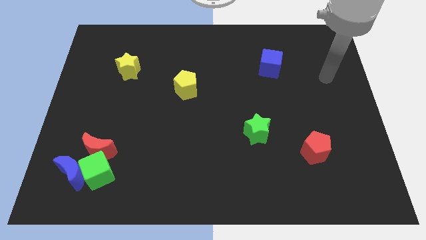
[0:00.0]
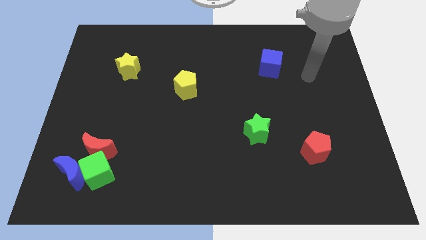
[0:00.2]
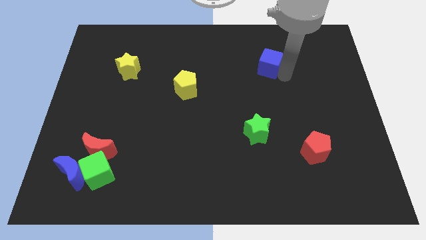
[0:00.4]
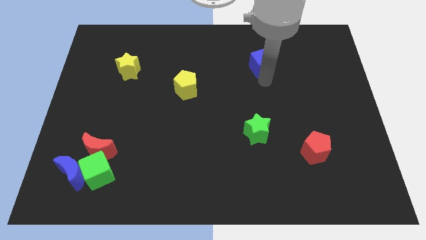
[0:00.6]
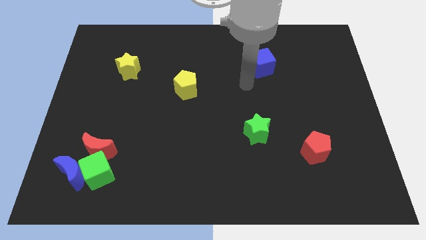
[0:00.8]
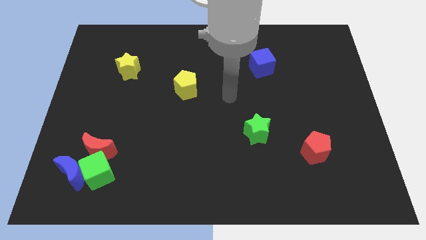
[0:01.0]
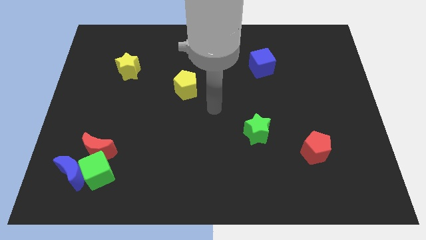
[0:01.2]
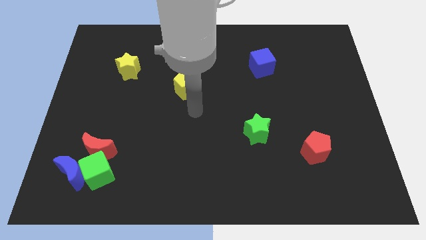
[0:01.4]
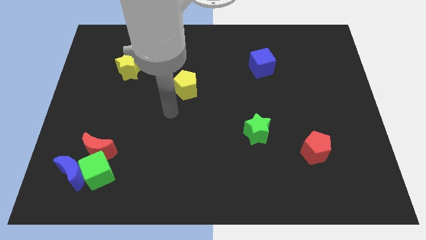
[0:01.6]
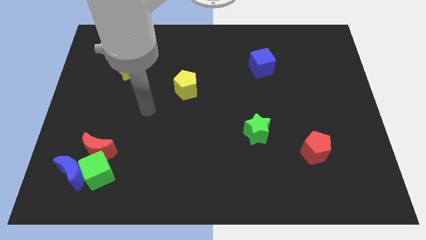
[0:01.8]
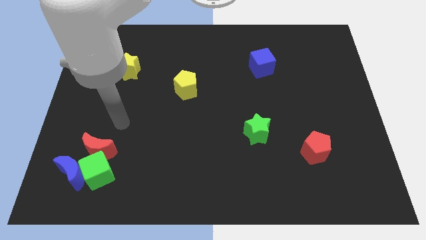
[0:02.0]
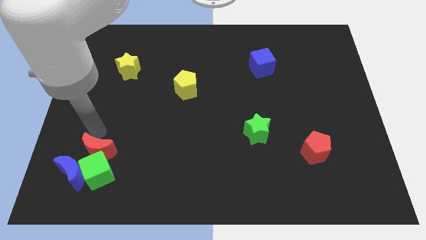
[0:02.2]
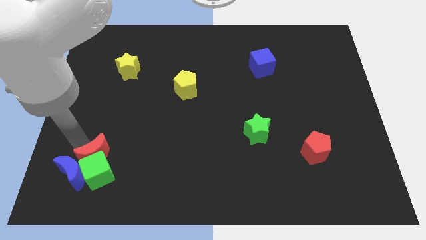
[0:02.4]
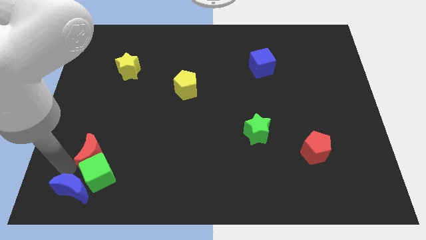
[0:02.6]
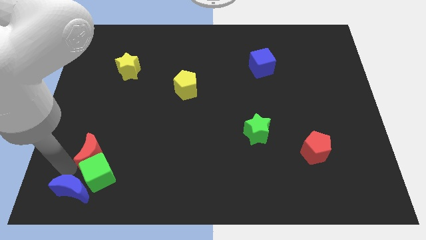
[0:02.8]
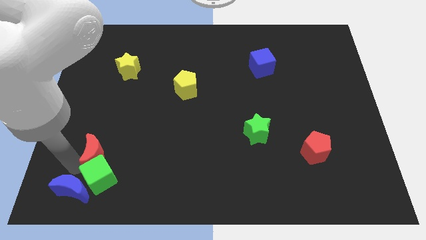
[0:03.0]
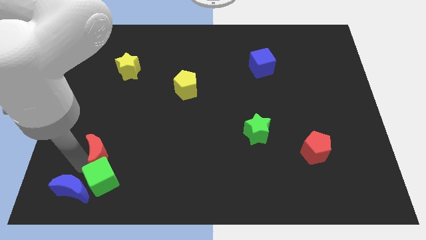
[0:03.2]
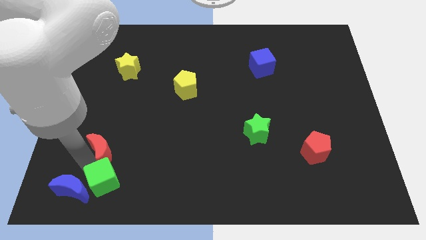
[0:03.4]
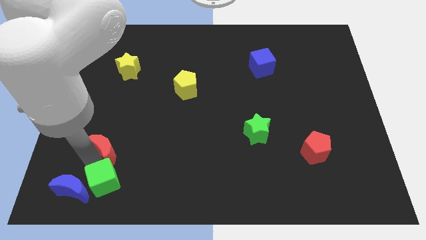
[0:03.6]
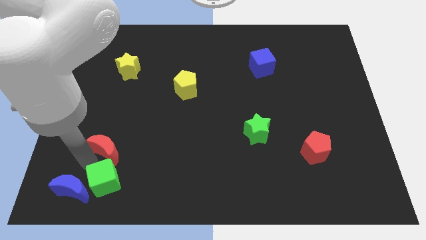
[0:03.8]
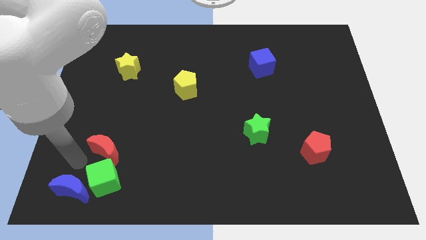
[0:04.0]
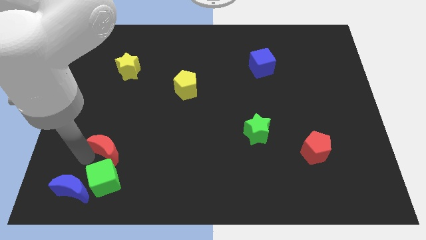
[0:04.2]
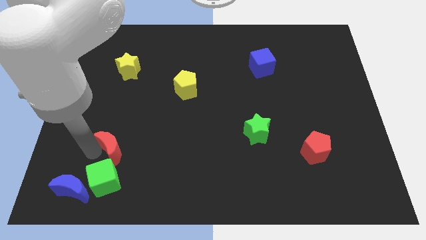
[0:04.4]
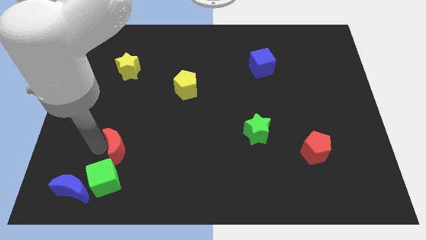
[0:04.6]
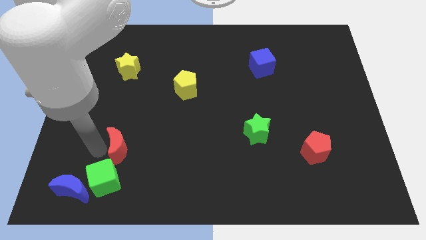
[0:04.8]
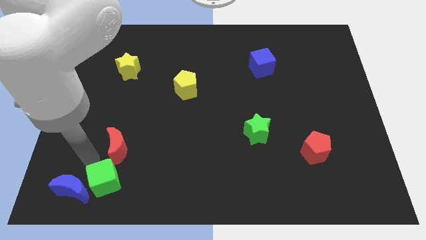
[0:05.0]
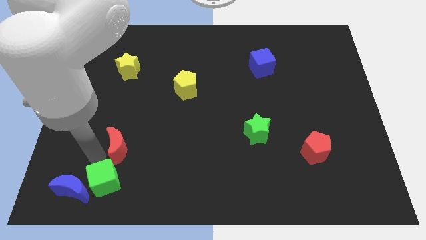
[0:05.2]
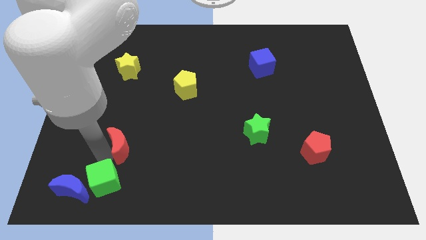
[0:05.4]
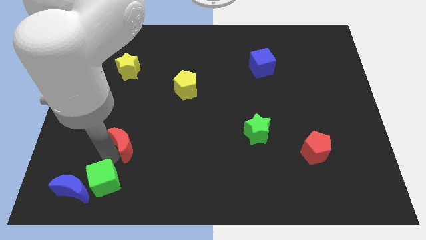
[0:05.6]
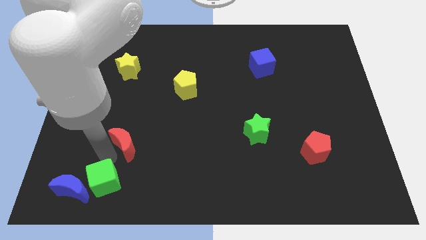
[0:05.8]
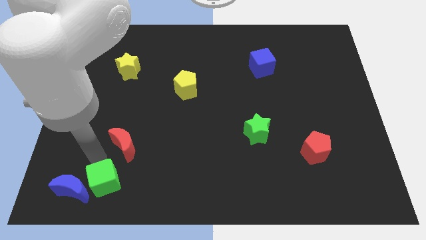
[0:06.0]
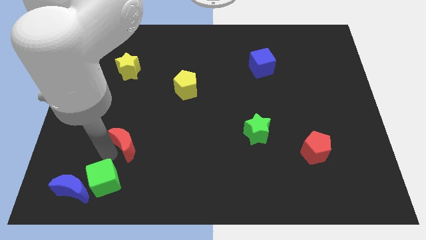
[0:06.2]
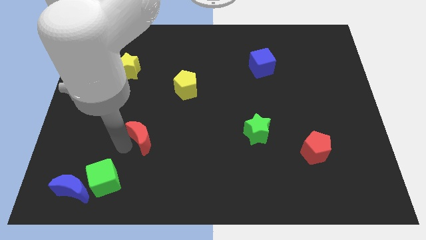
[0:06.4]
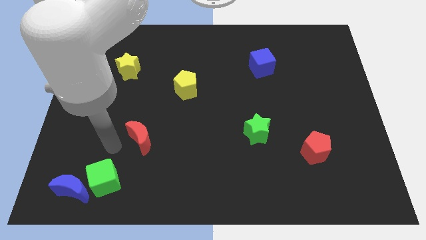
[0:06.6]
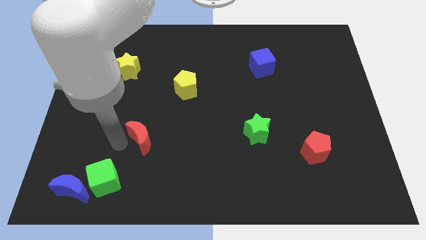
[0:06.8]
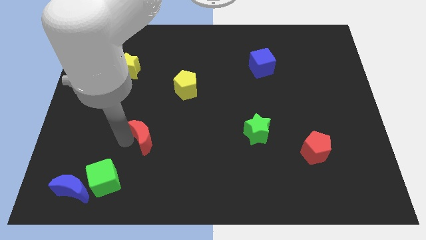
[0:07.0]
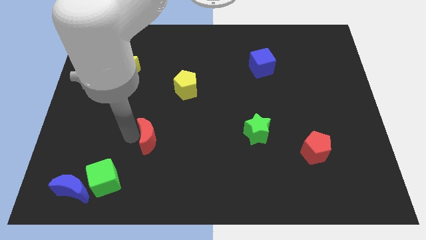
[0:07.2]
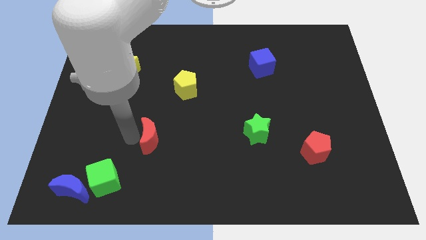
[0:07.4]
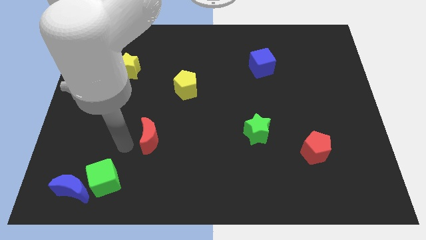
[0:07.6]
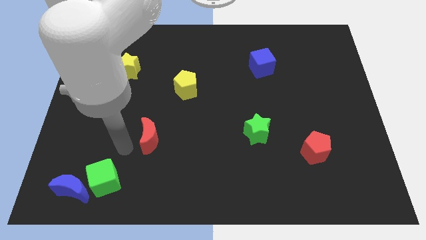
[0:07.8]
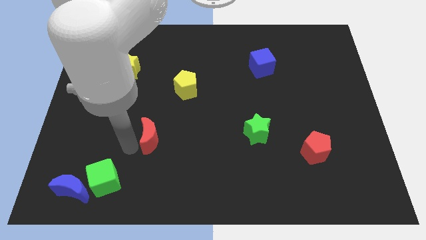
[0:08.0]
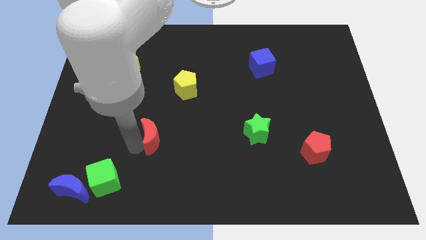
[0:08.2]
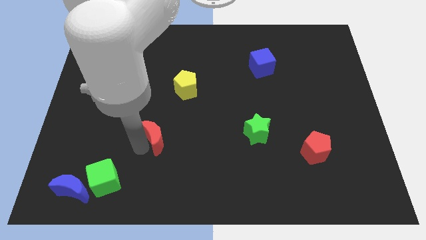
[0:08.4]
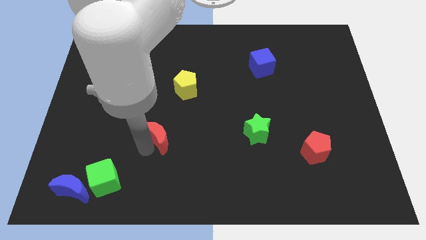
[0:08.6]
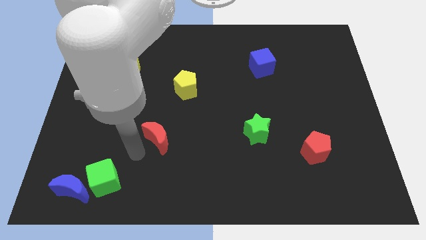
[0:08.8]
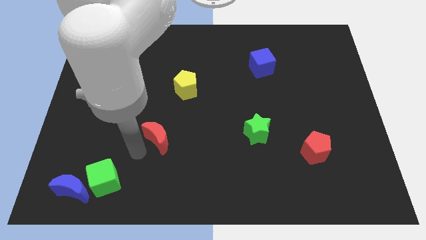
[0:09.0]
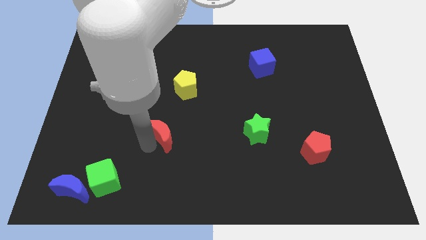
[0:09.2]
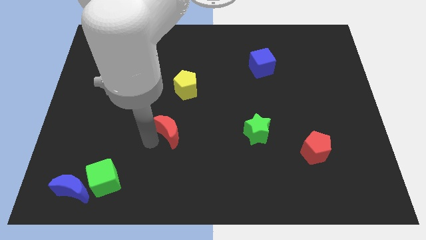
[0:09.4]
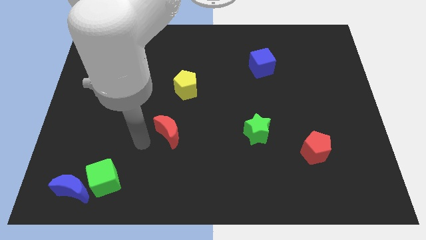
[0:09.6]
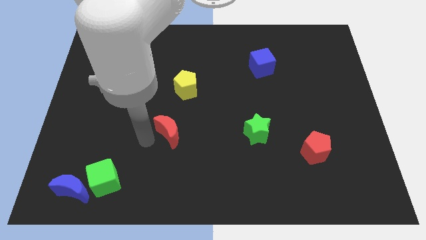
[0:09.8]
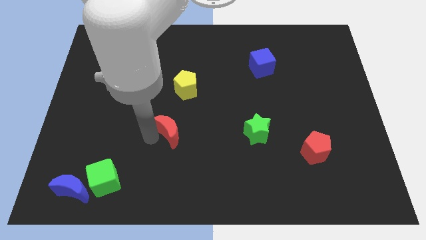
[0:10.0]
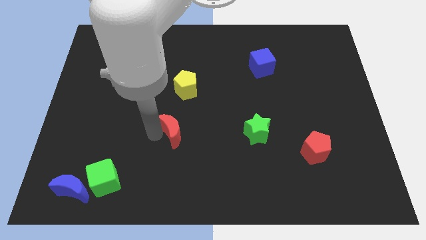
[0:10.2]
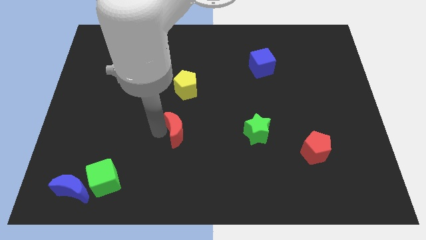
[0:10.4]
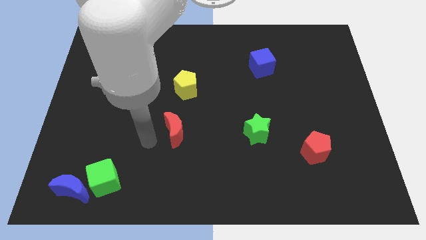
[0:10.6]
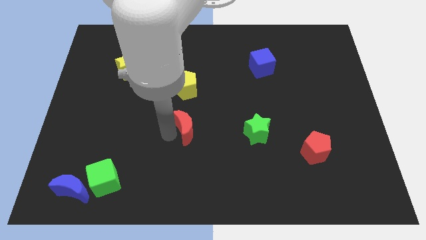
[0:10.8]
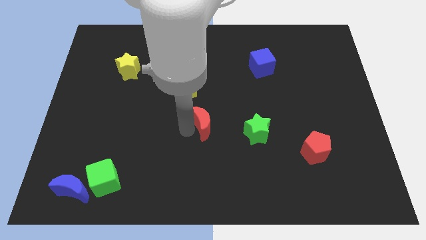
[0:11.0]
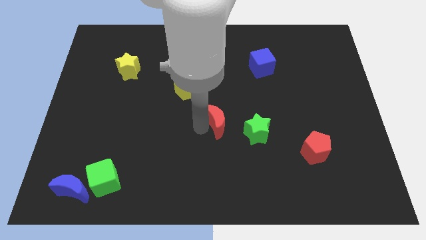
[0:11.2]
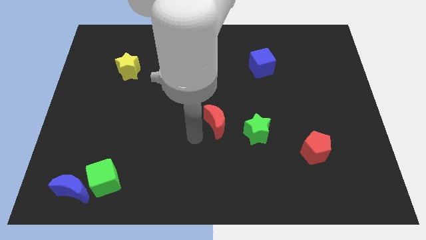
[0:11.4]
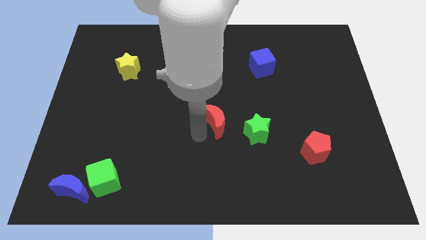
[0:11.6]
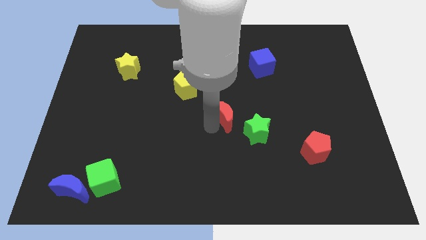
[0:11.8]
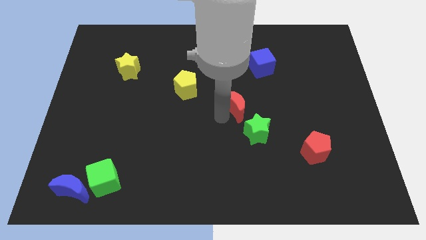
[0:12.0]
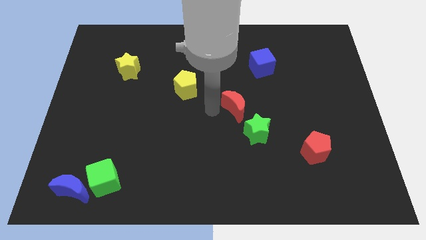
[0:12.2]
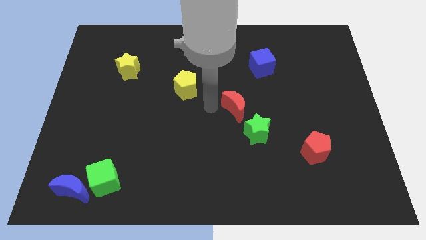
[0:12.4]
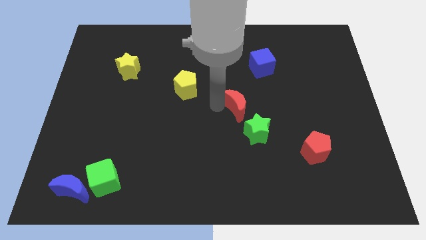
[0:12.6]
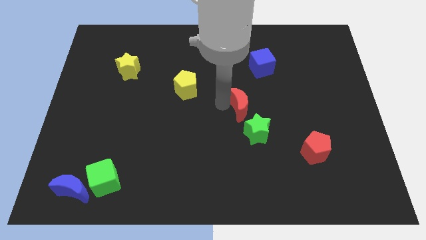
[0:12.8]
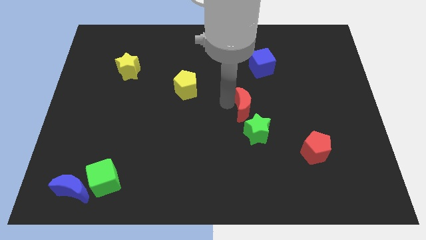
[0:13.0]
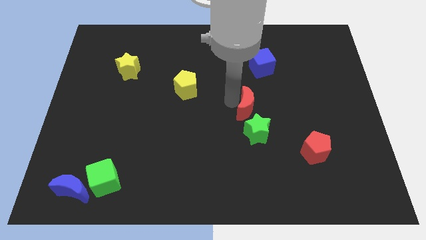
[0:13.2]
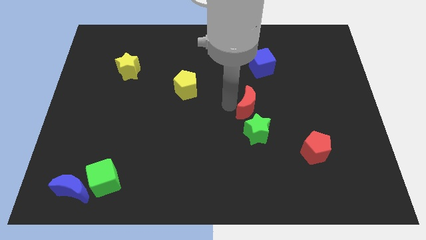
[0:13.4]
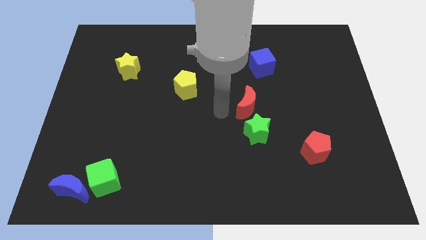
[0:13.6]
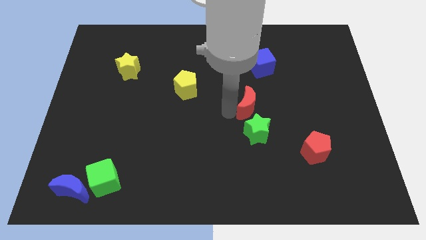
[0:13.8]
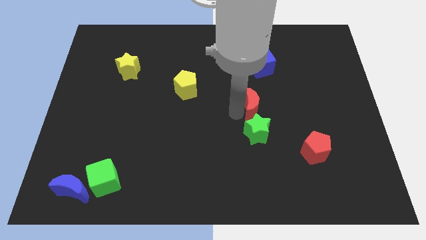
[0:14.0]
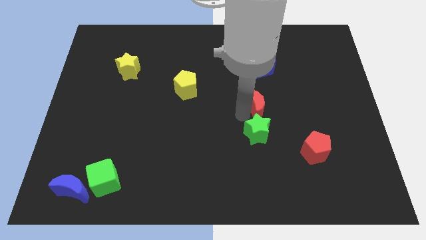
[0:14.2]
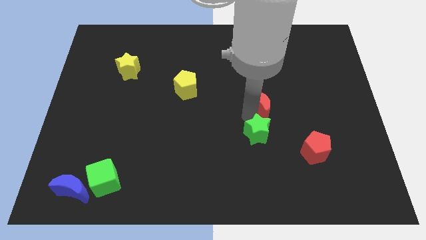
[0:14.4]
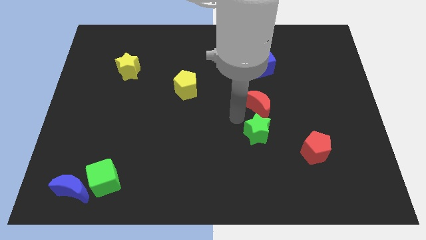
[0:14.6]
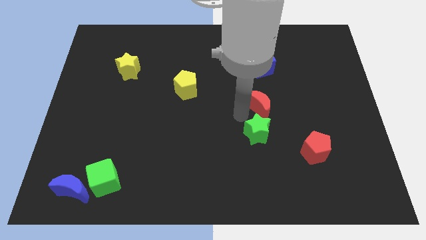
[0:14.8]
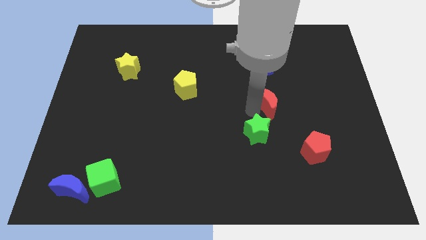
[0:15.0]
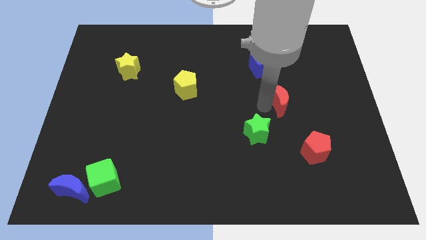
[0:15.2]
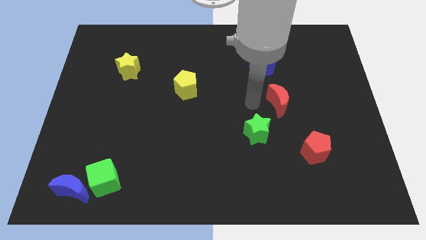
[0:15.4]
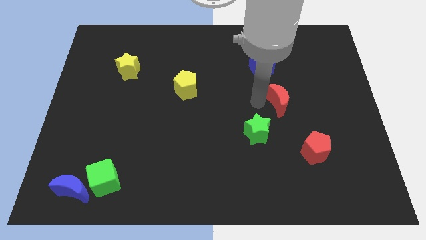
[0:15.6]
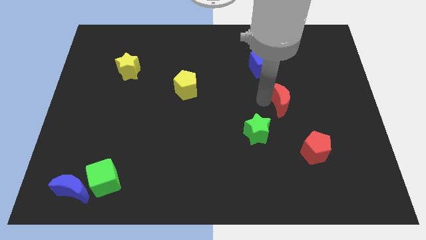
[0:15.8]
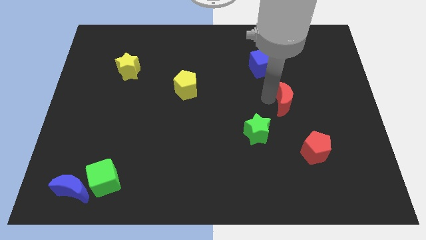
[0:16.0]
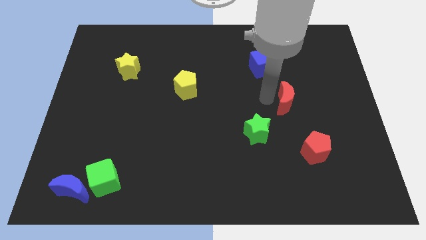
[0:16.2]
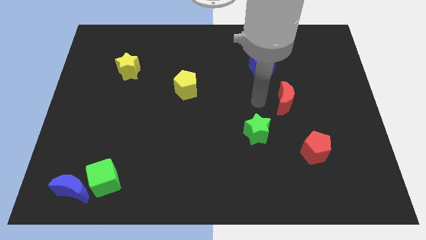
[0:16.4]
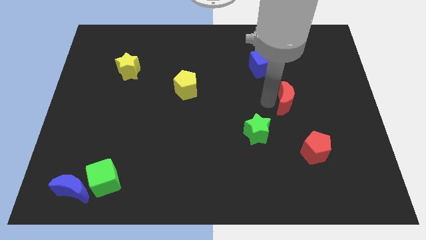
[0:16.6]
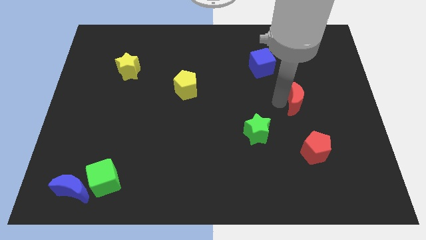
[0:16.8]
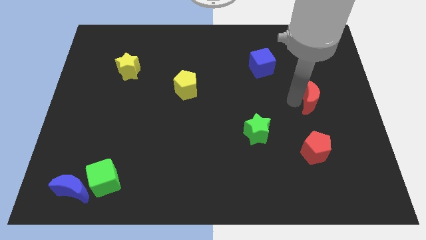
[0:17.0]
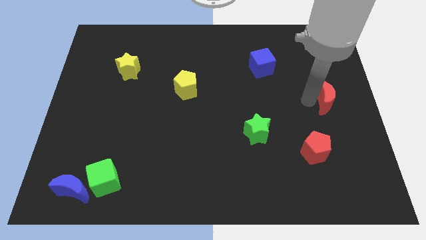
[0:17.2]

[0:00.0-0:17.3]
put the red moon to the right side of the board
